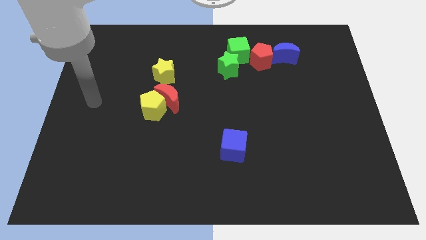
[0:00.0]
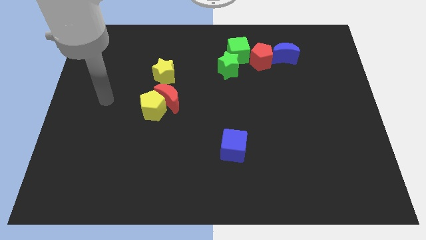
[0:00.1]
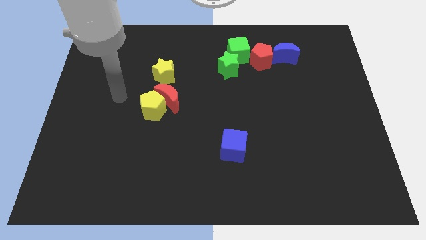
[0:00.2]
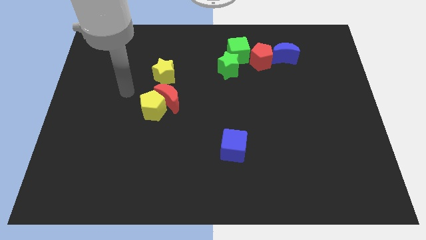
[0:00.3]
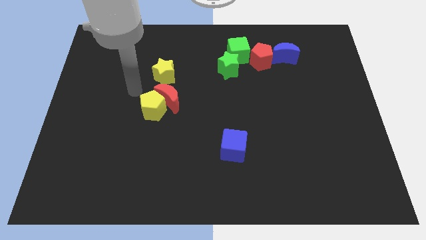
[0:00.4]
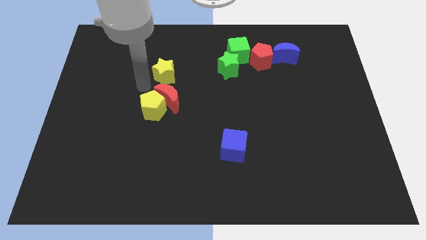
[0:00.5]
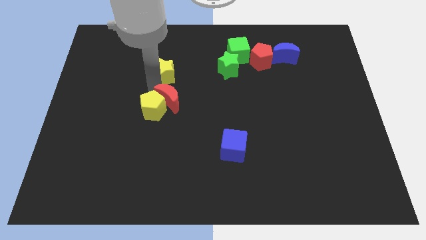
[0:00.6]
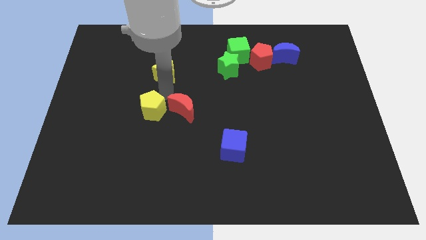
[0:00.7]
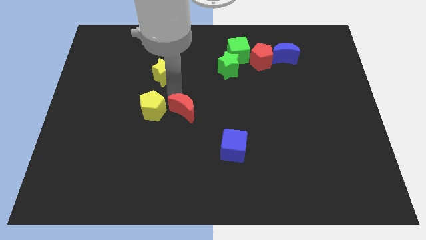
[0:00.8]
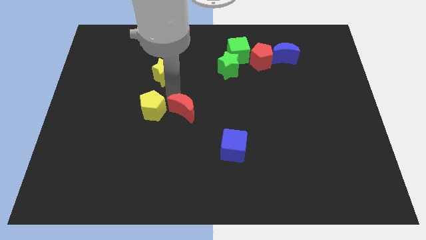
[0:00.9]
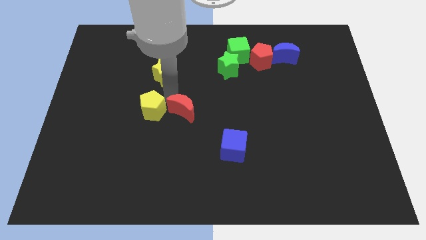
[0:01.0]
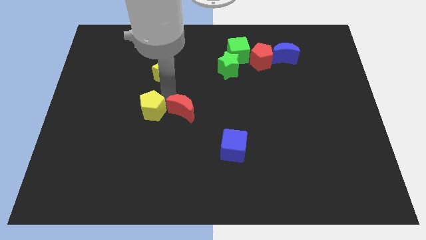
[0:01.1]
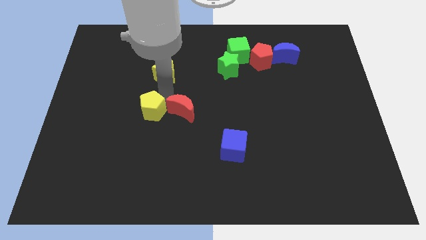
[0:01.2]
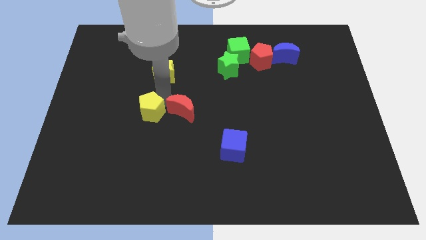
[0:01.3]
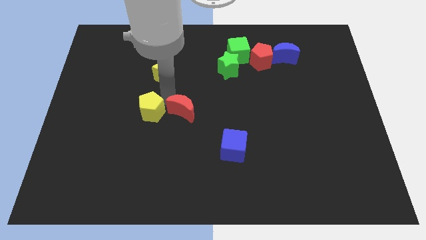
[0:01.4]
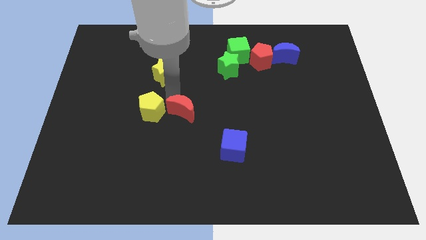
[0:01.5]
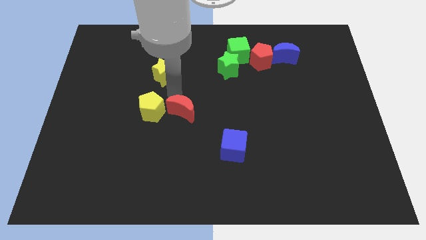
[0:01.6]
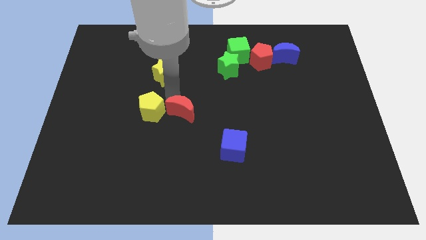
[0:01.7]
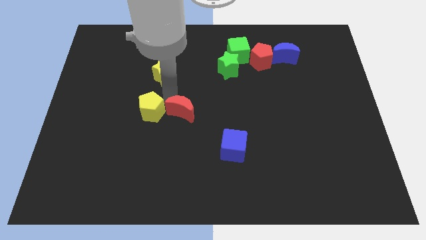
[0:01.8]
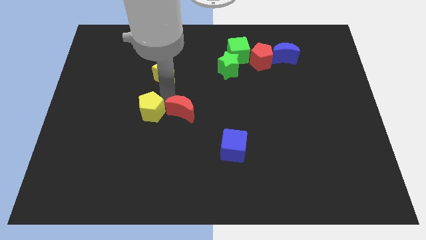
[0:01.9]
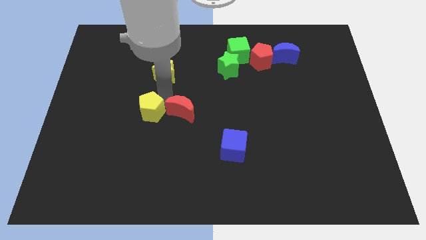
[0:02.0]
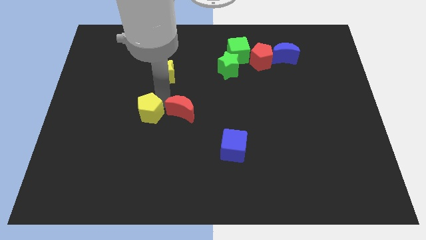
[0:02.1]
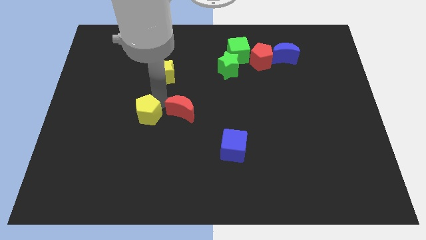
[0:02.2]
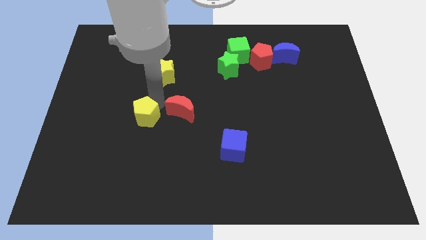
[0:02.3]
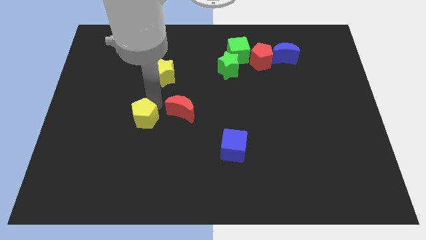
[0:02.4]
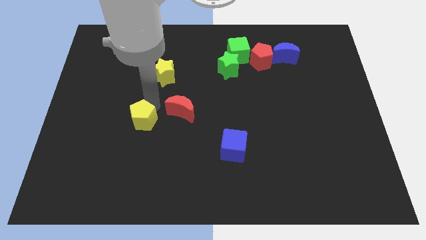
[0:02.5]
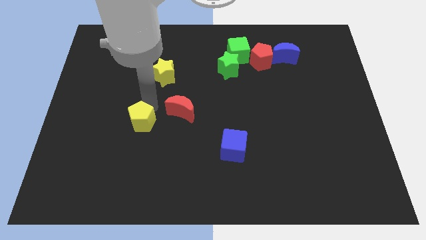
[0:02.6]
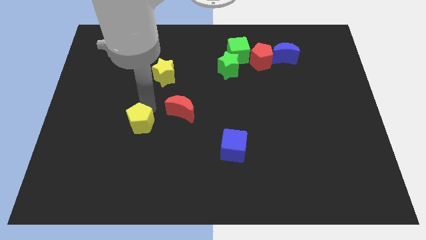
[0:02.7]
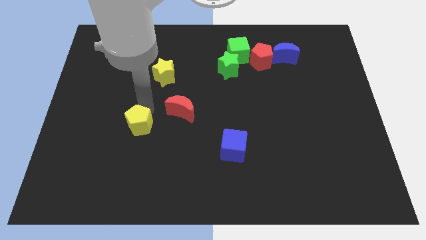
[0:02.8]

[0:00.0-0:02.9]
pull the yellow pentagon apart from the red moon

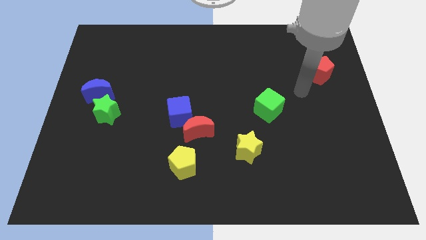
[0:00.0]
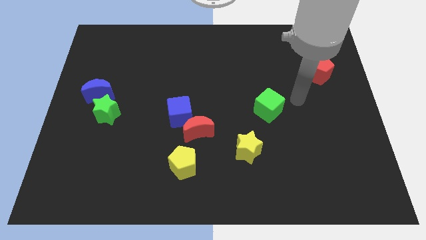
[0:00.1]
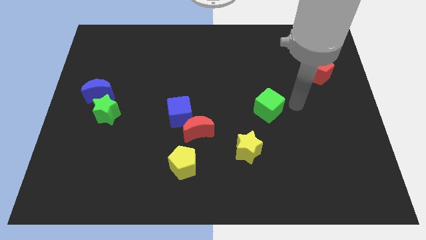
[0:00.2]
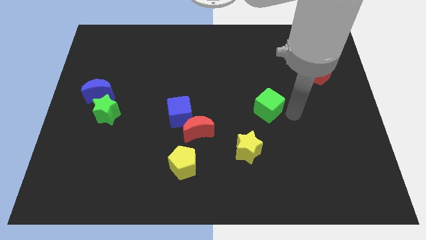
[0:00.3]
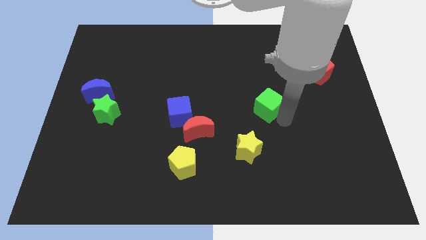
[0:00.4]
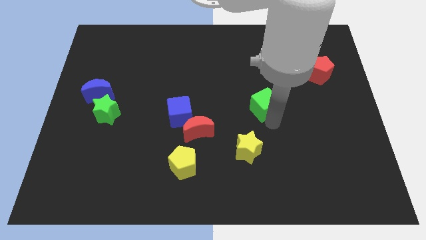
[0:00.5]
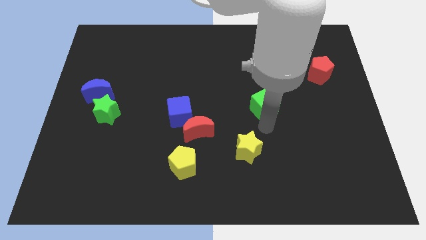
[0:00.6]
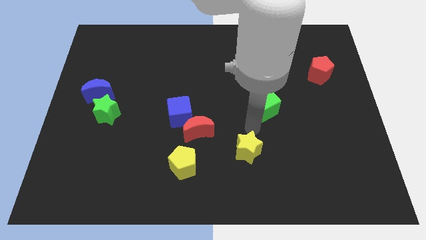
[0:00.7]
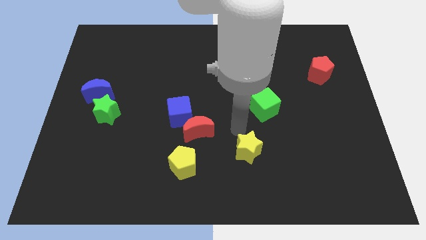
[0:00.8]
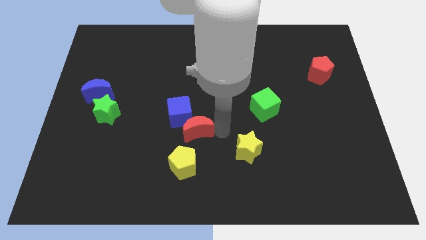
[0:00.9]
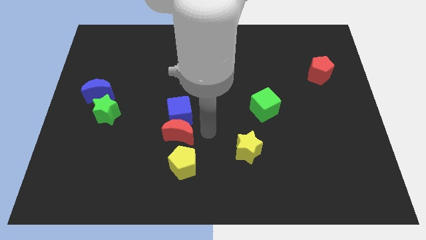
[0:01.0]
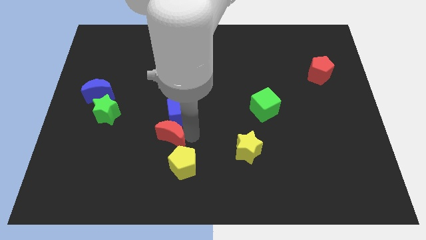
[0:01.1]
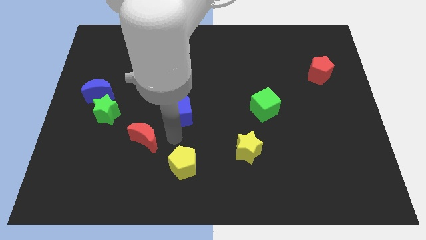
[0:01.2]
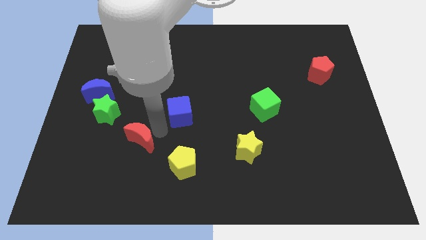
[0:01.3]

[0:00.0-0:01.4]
separate the blue cube from the red moon

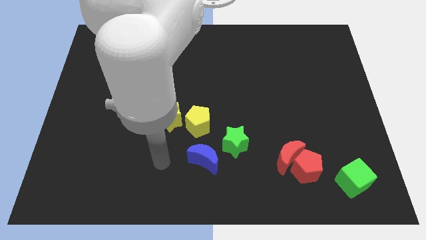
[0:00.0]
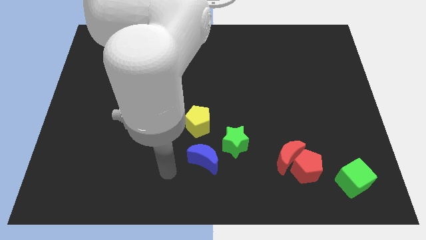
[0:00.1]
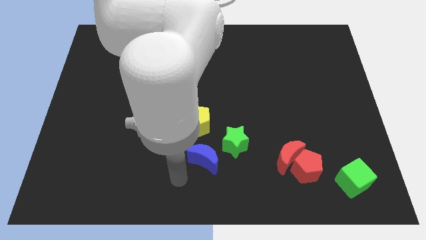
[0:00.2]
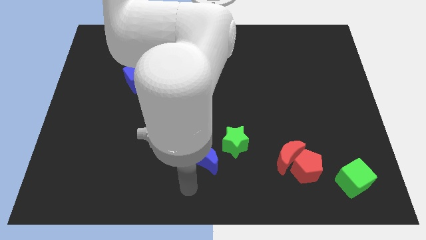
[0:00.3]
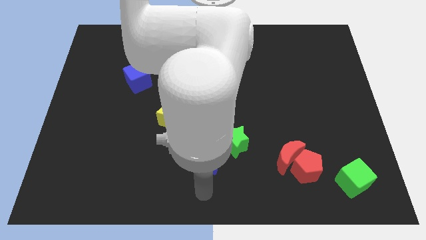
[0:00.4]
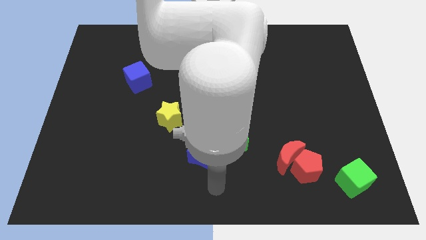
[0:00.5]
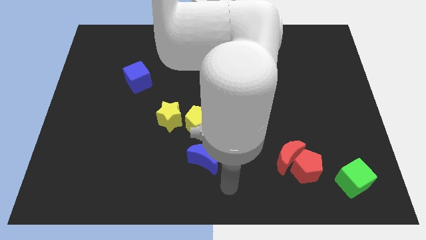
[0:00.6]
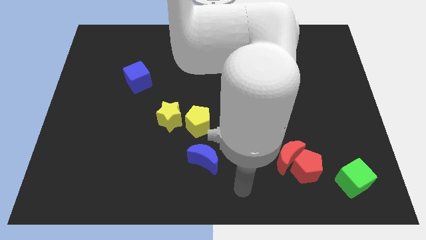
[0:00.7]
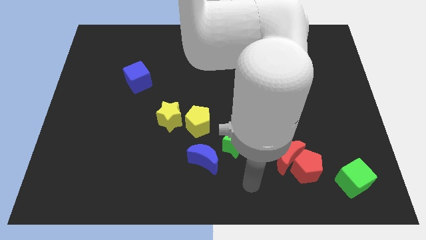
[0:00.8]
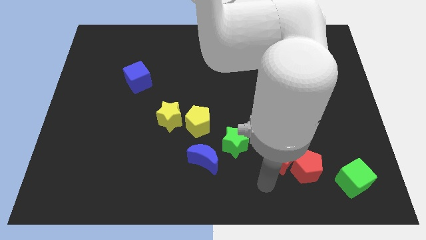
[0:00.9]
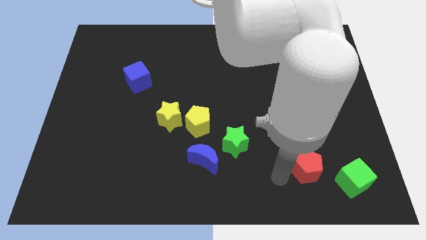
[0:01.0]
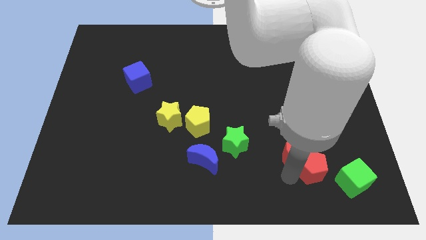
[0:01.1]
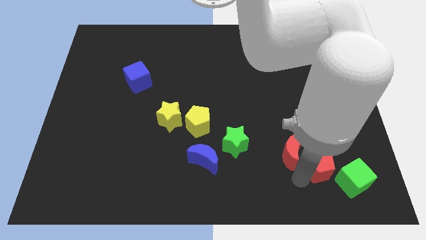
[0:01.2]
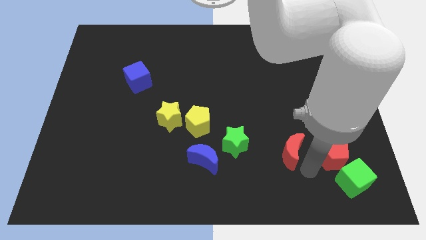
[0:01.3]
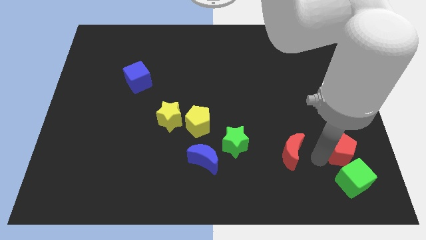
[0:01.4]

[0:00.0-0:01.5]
move the red moon away from the red pentagon

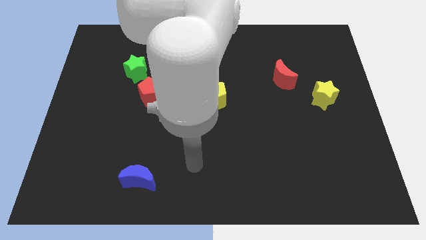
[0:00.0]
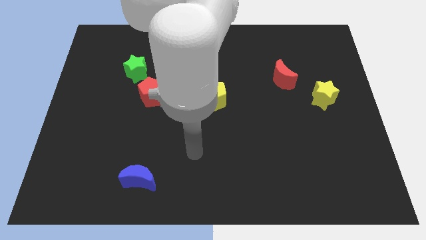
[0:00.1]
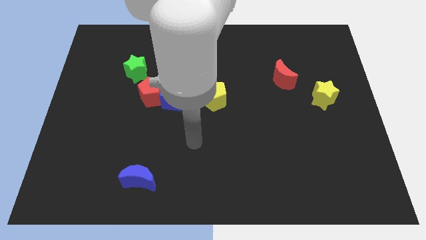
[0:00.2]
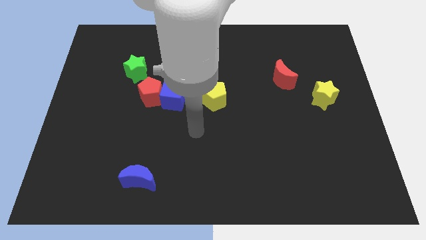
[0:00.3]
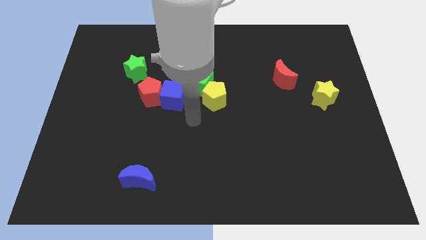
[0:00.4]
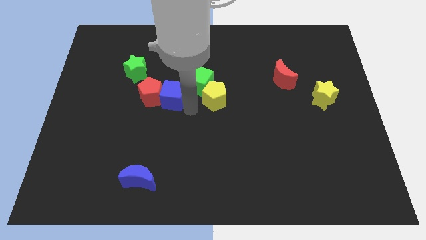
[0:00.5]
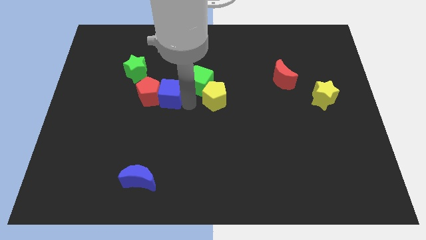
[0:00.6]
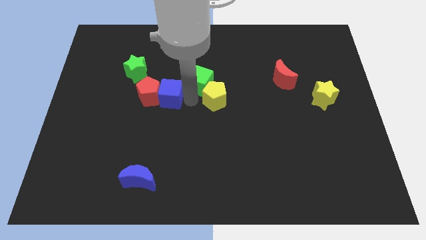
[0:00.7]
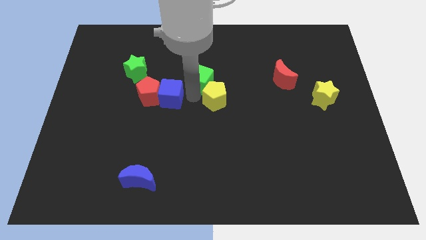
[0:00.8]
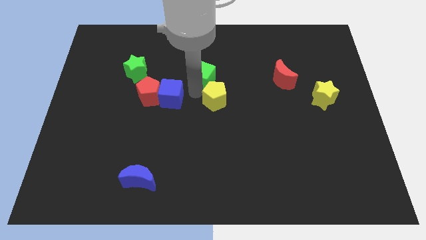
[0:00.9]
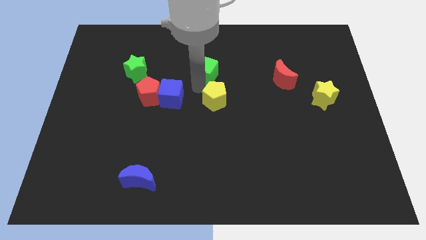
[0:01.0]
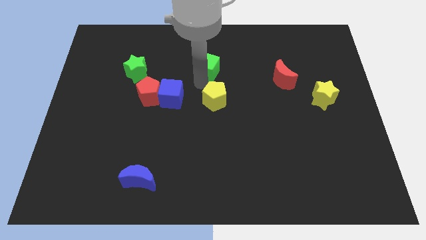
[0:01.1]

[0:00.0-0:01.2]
pull the green cube apart from the yellow pentagon and blue cube

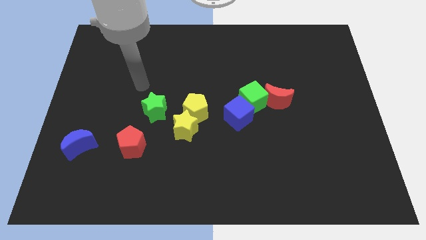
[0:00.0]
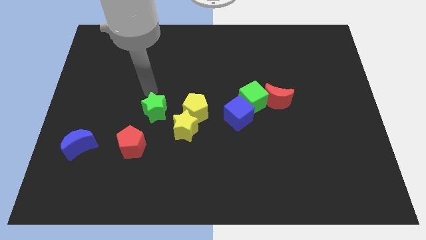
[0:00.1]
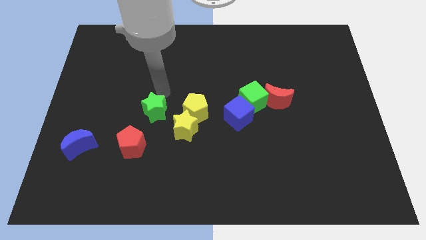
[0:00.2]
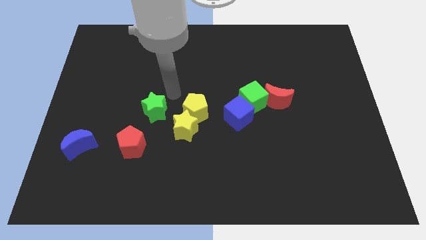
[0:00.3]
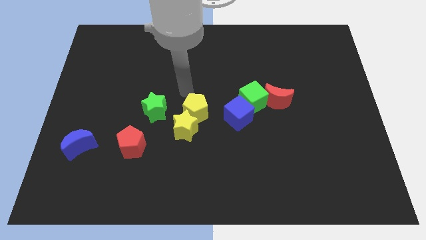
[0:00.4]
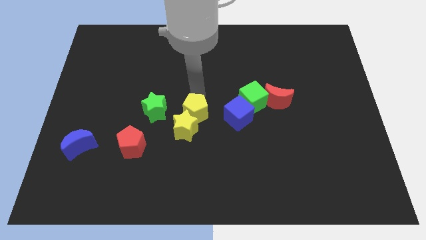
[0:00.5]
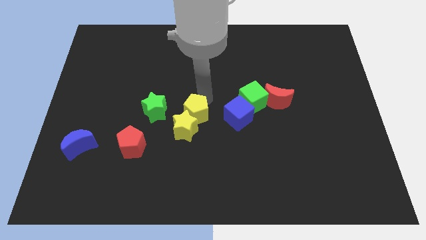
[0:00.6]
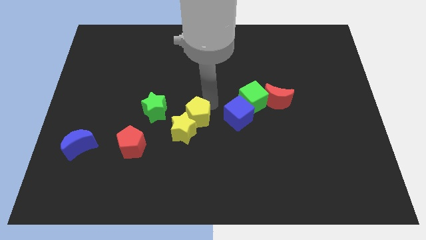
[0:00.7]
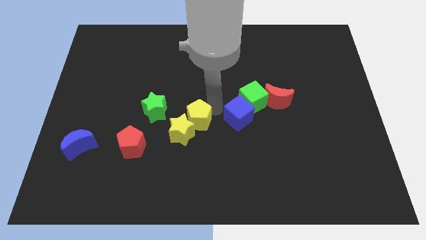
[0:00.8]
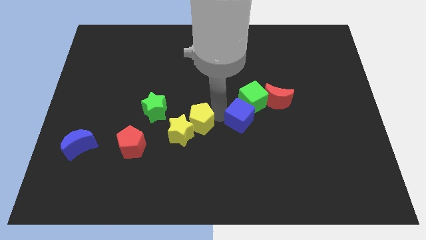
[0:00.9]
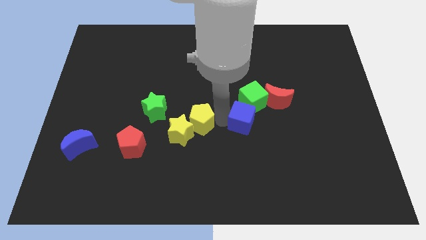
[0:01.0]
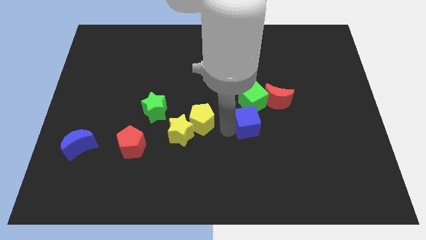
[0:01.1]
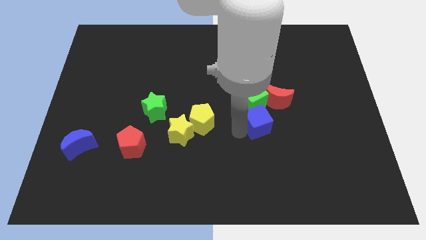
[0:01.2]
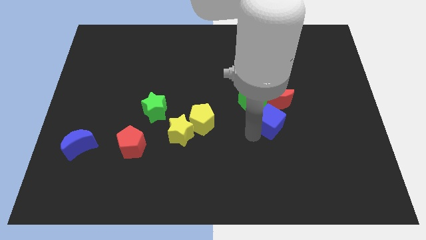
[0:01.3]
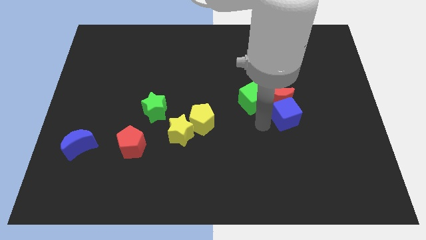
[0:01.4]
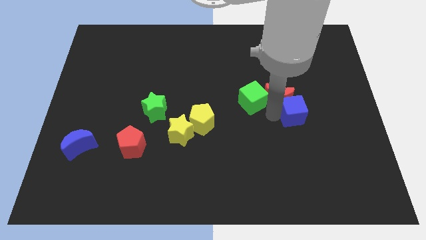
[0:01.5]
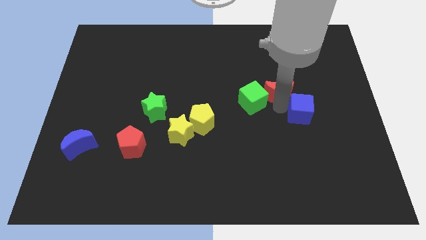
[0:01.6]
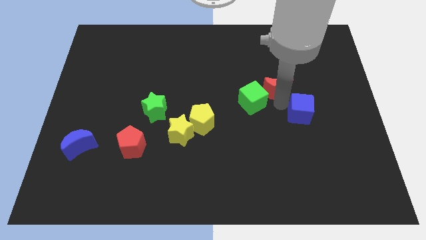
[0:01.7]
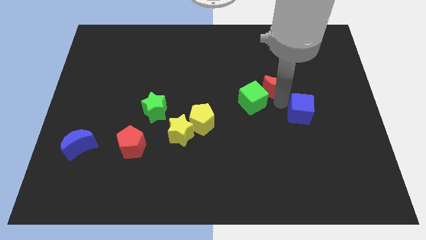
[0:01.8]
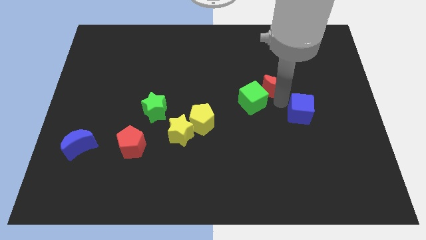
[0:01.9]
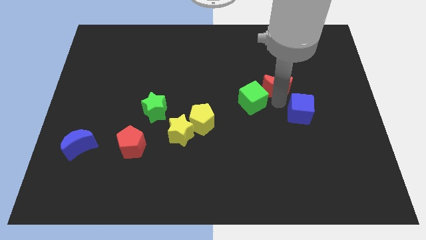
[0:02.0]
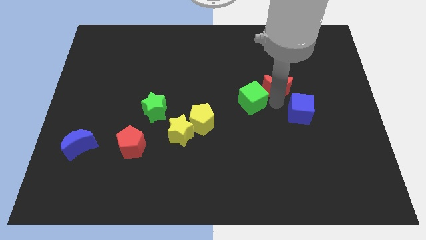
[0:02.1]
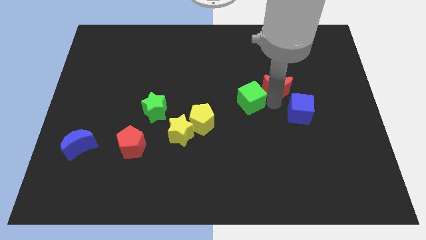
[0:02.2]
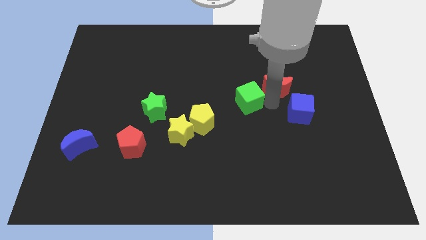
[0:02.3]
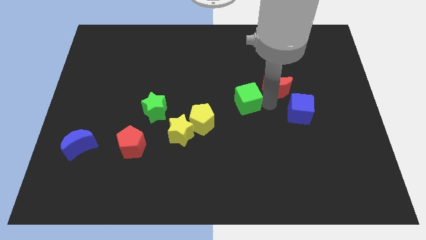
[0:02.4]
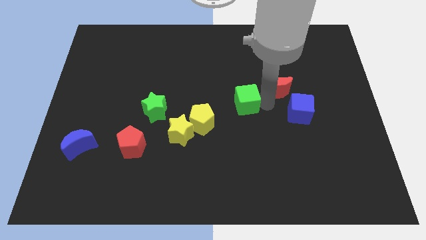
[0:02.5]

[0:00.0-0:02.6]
pull the green cube apart from the blue cube and red moon
